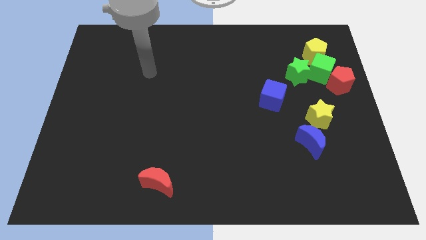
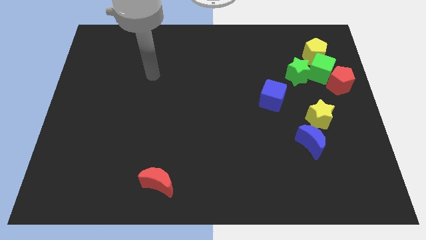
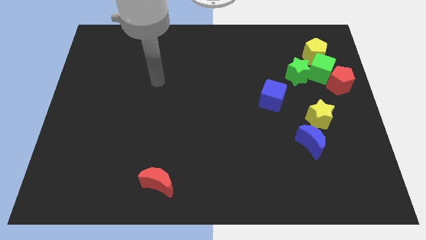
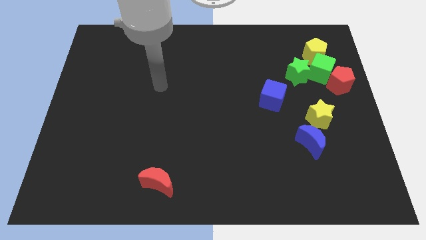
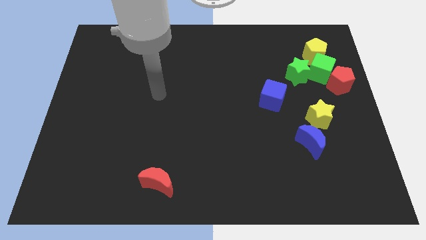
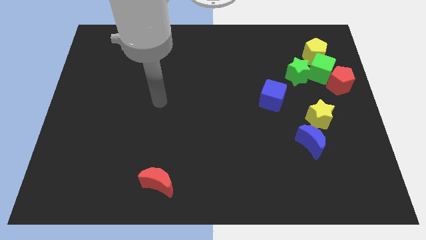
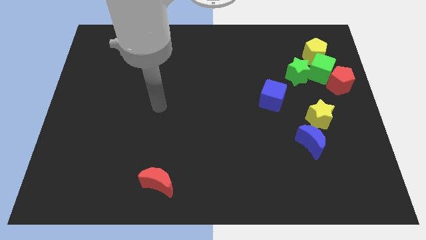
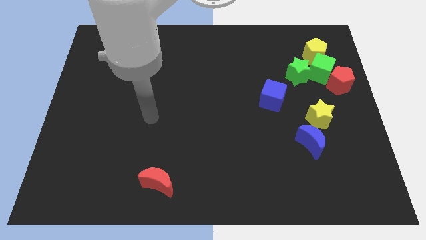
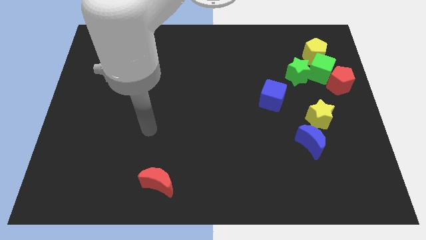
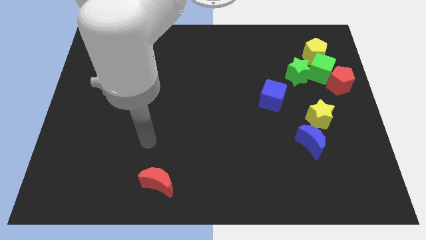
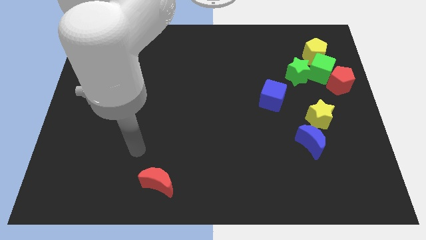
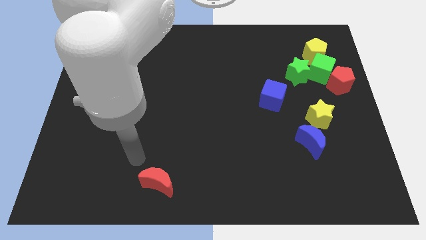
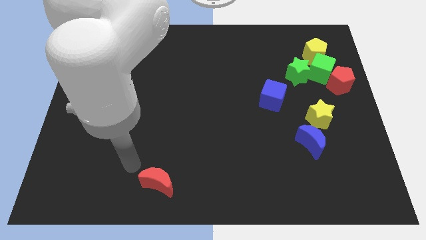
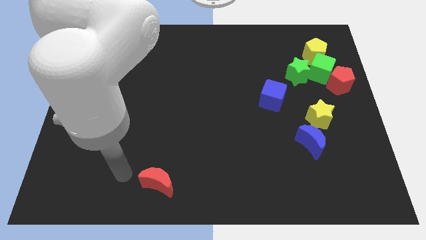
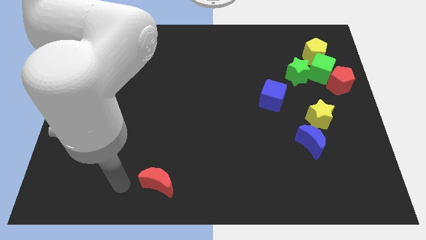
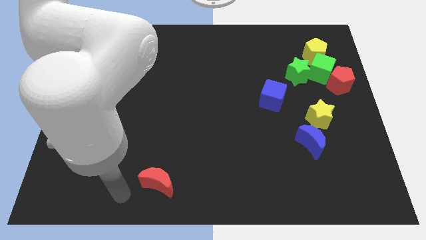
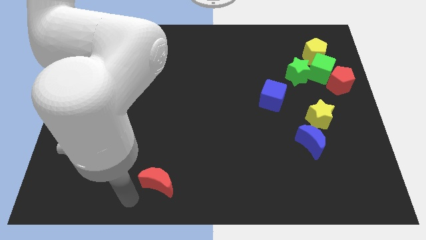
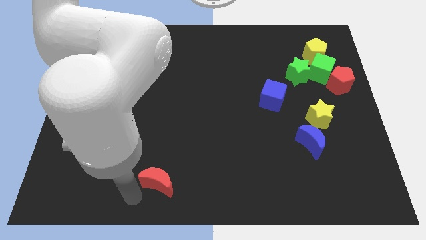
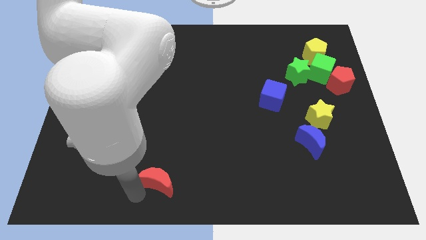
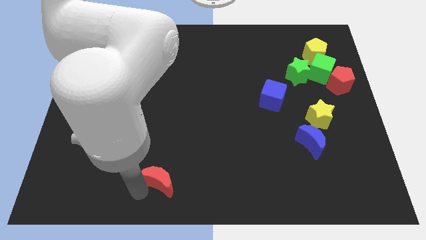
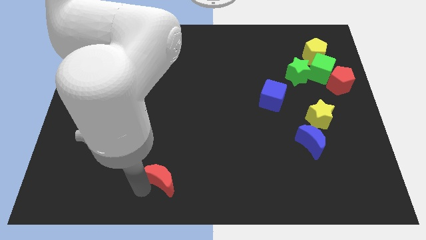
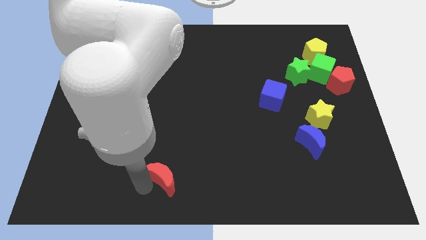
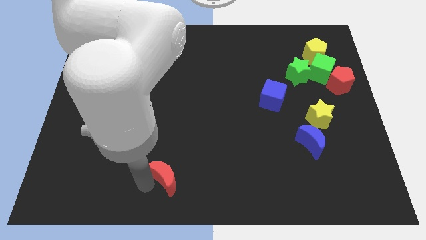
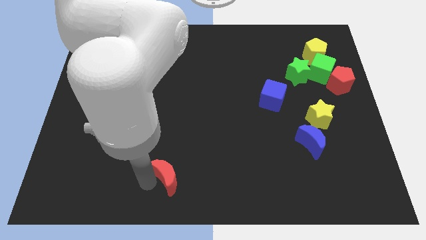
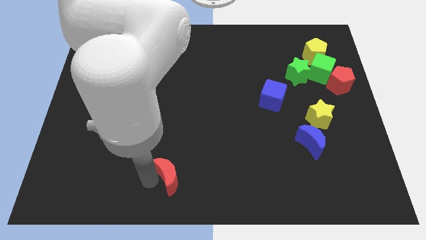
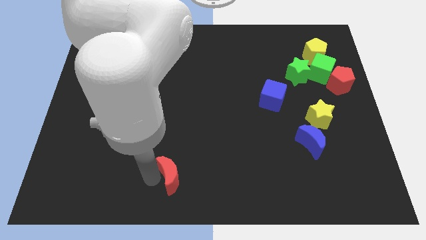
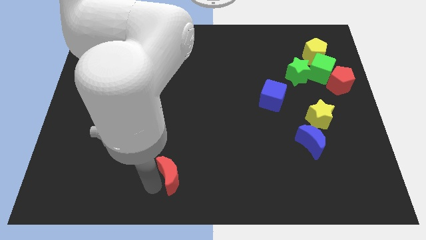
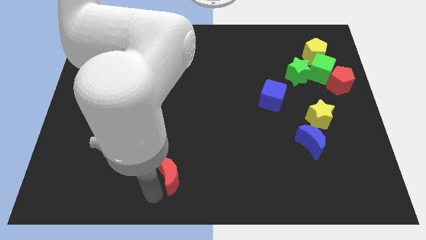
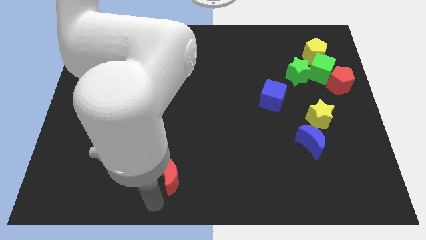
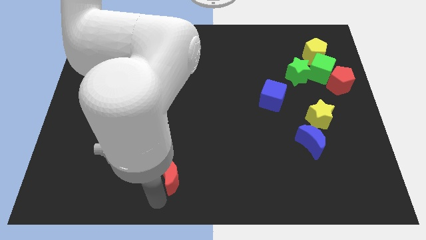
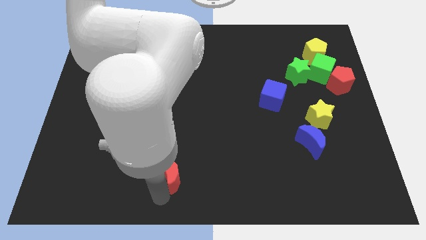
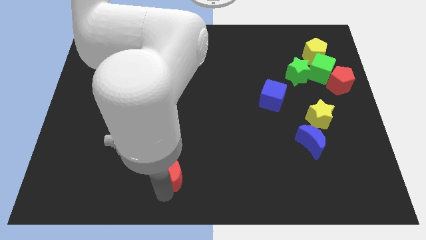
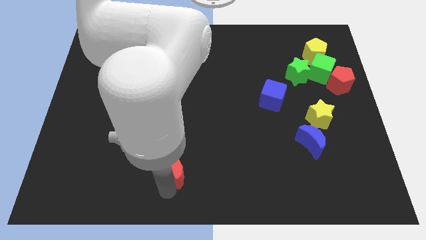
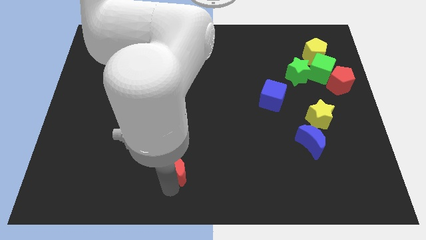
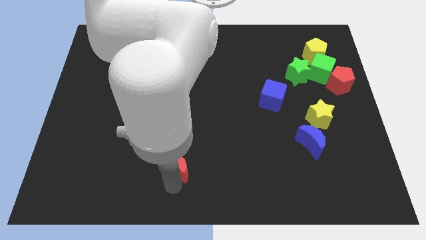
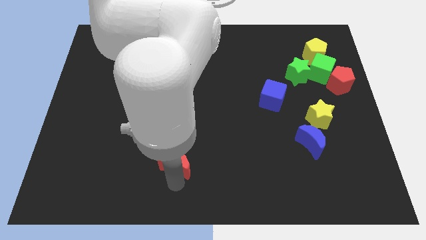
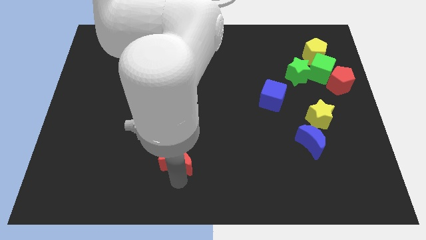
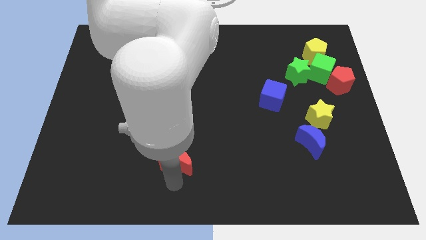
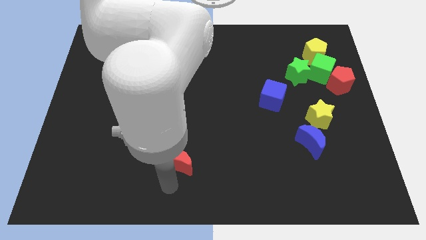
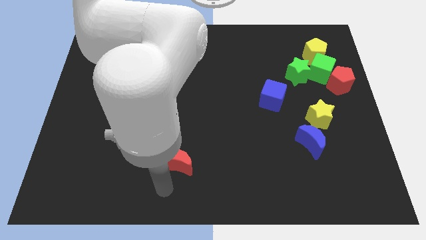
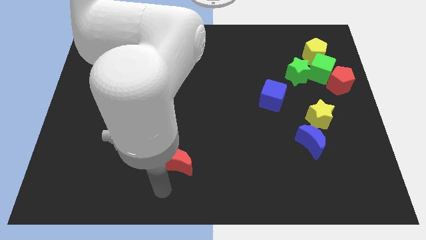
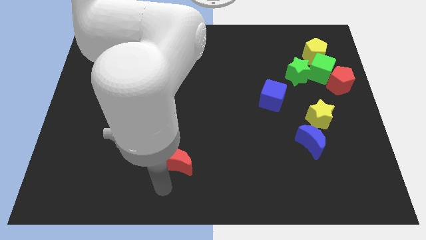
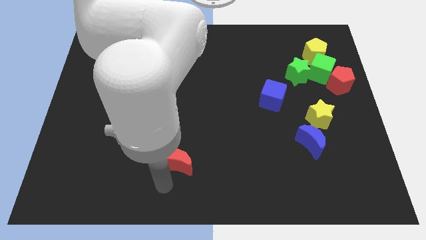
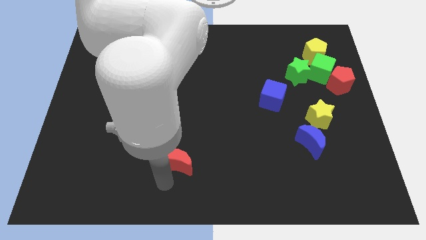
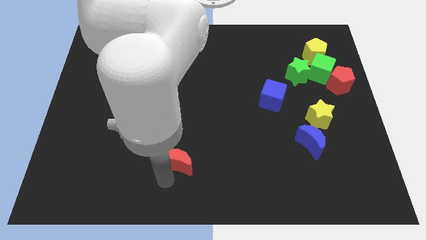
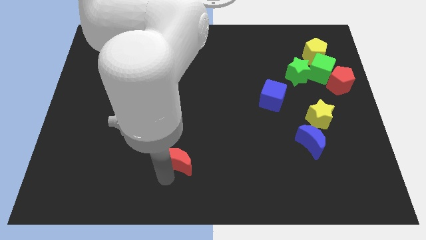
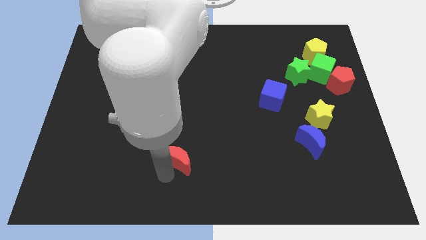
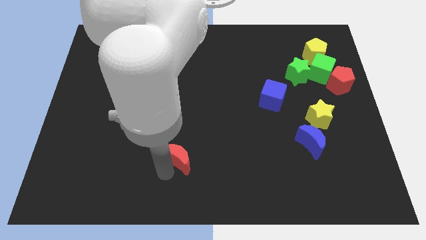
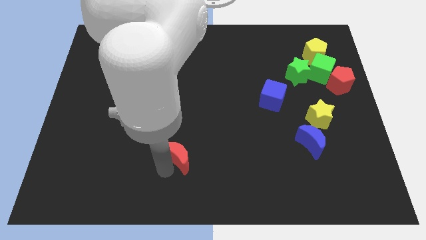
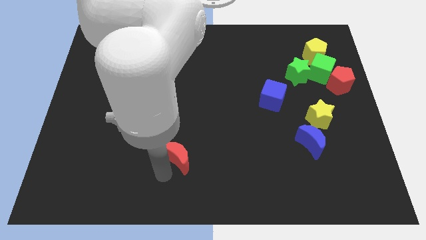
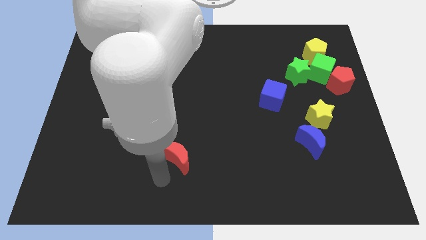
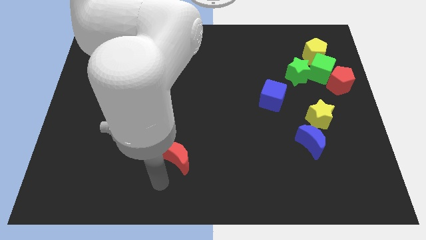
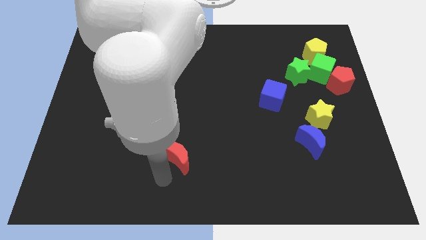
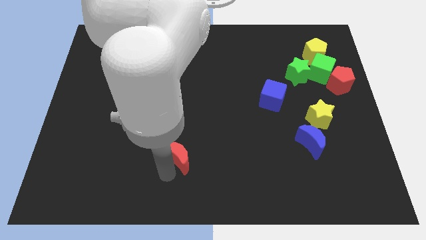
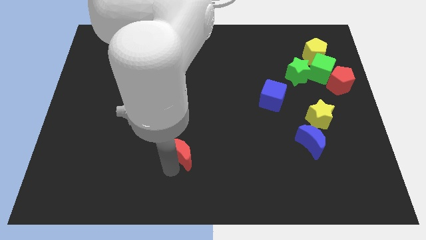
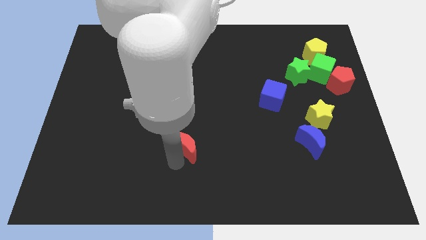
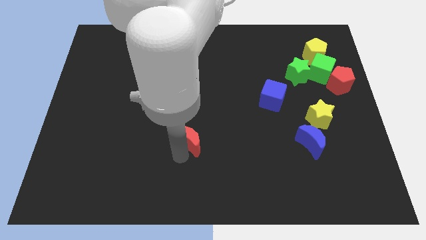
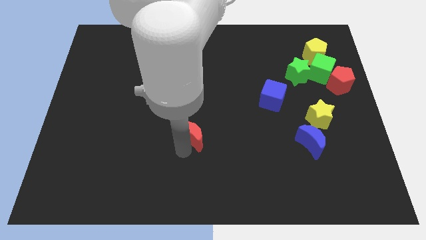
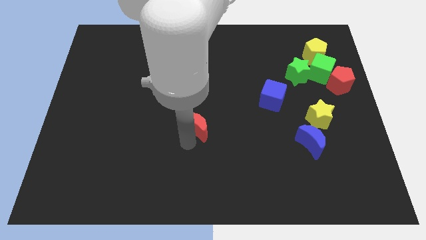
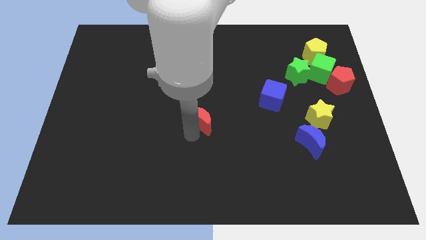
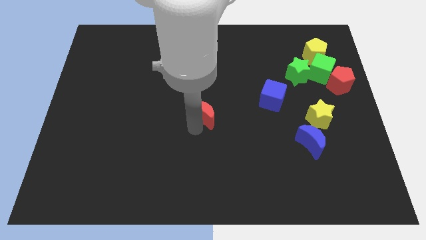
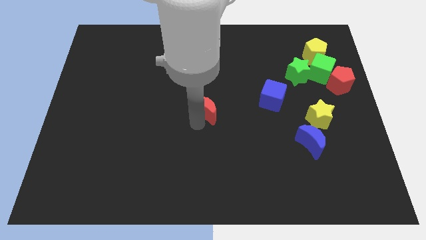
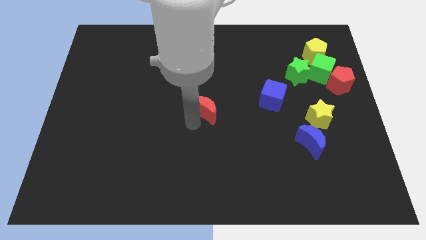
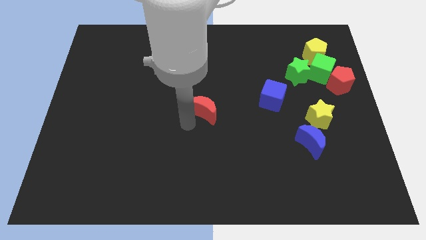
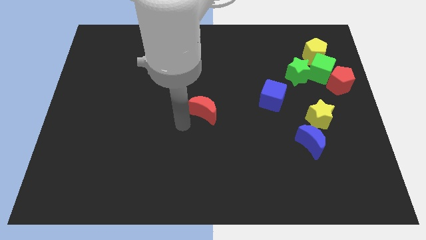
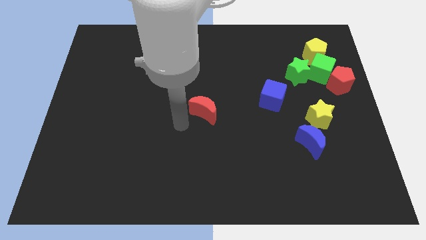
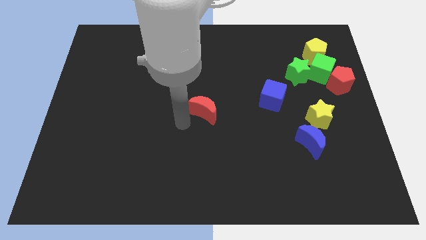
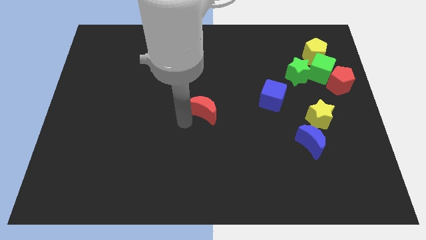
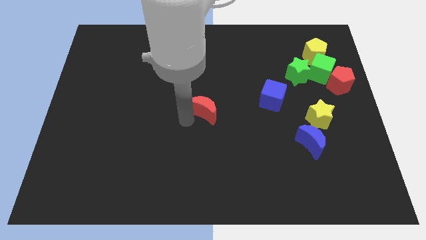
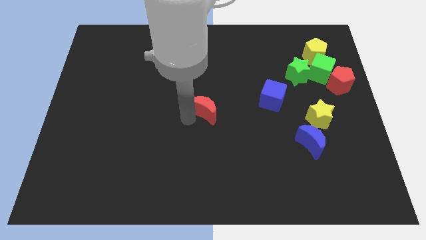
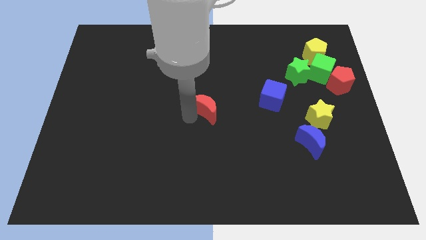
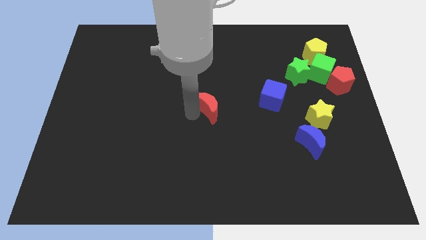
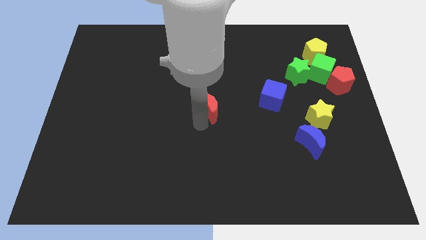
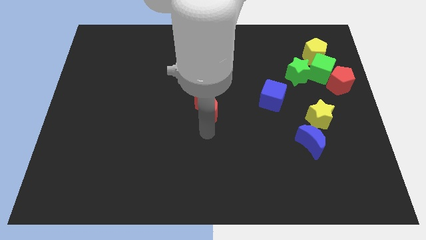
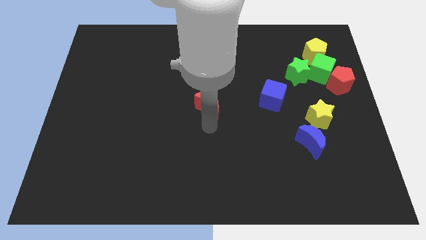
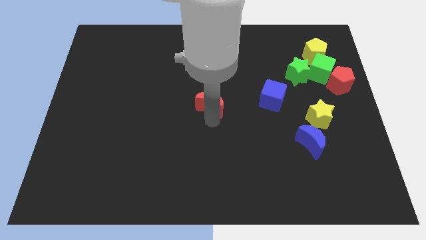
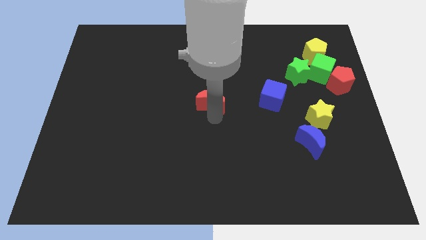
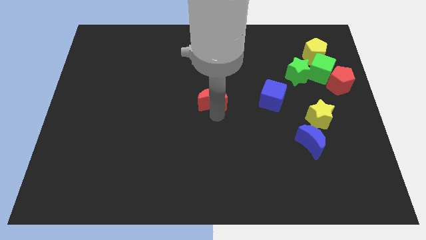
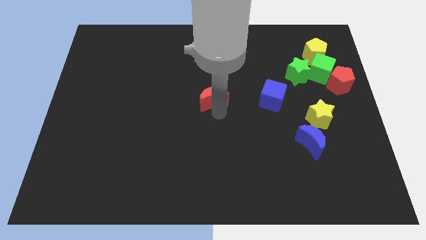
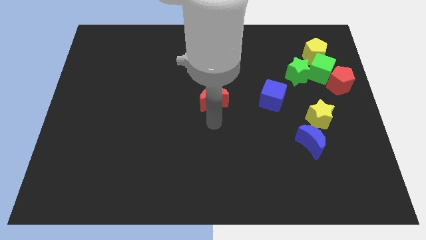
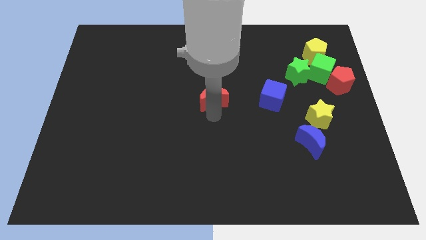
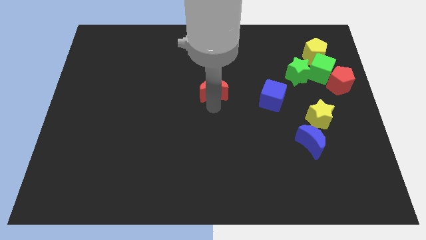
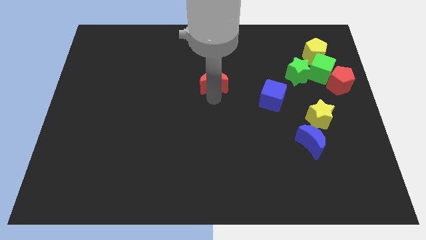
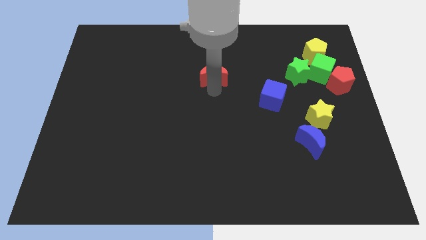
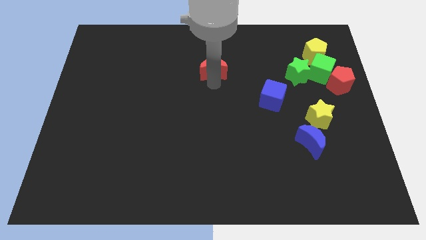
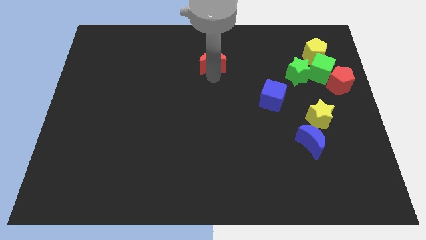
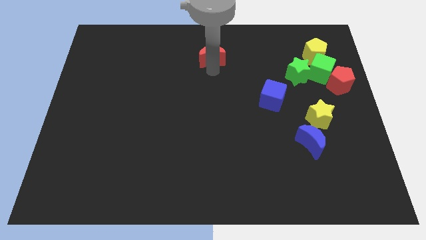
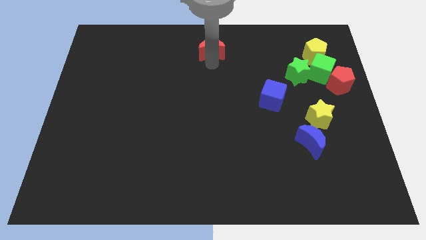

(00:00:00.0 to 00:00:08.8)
slide the red moon to the top
